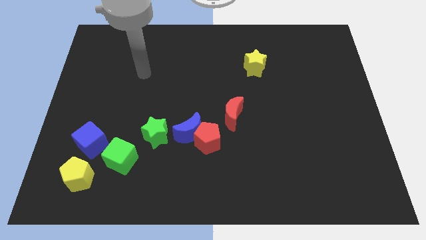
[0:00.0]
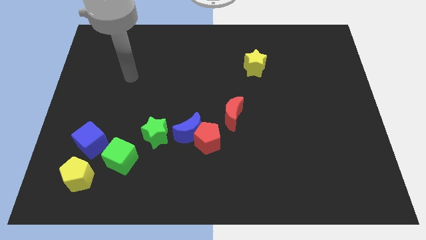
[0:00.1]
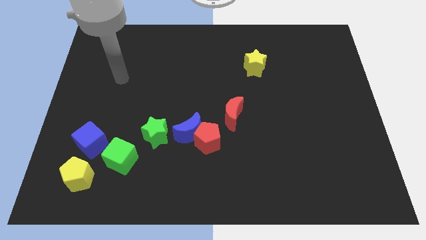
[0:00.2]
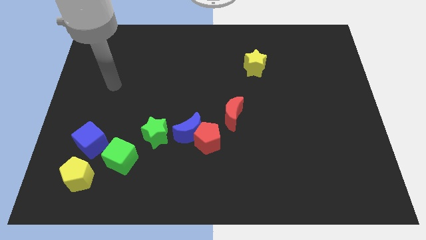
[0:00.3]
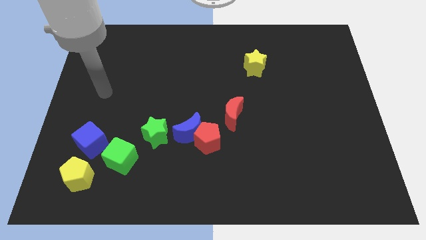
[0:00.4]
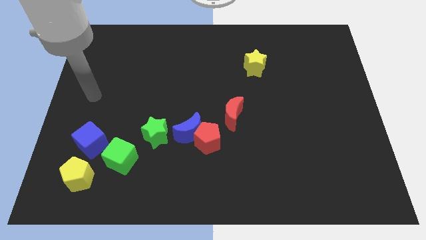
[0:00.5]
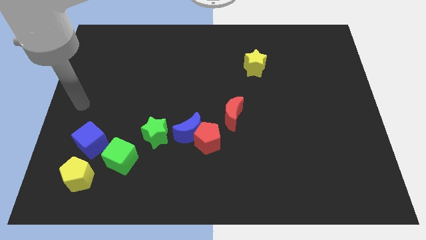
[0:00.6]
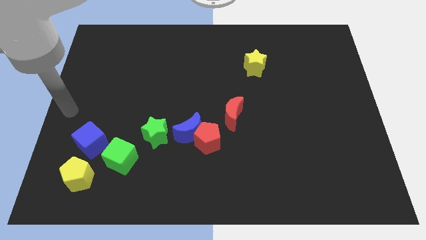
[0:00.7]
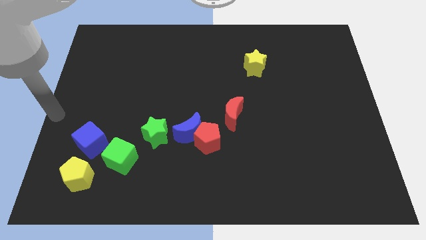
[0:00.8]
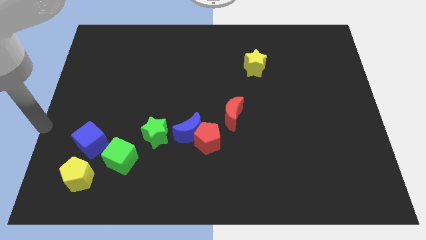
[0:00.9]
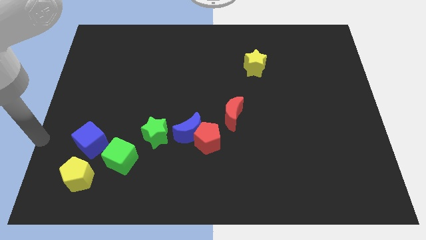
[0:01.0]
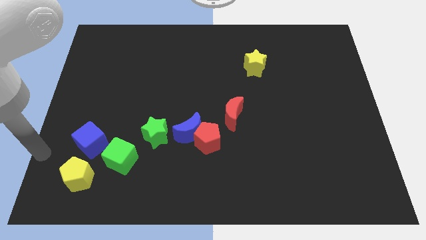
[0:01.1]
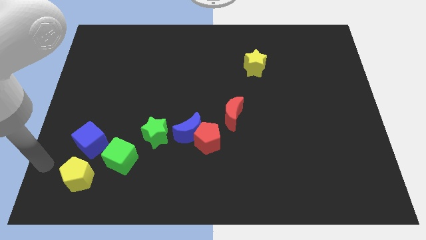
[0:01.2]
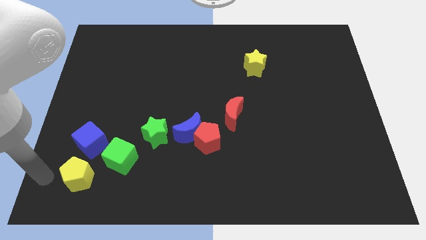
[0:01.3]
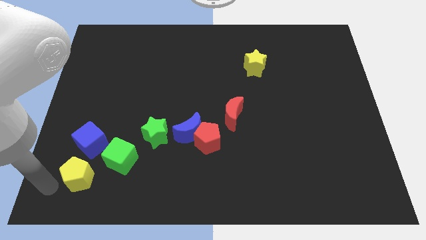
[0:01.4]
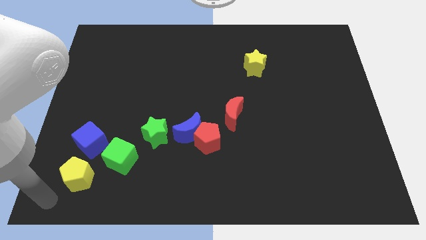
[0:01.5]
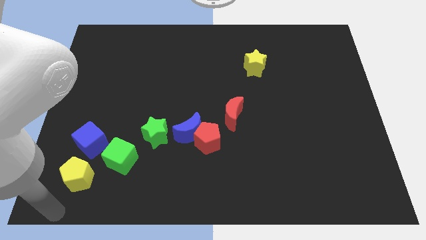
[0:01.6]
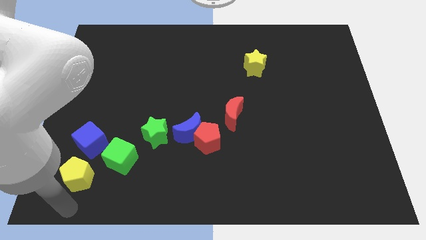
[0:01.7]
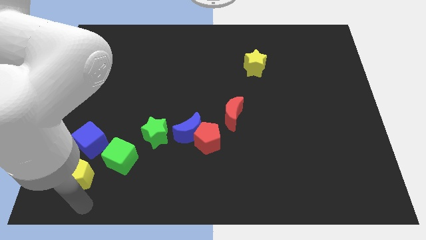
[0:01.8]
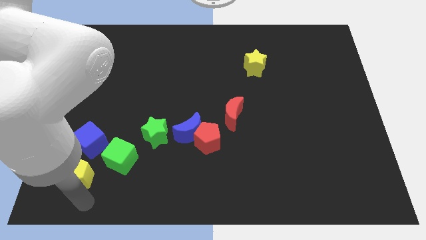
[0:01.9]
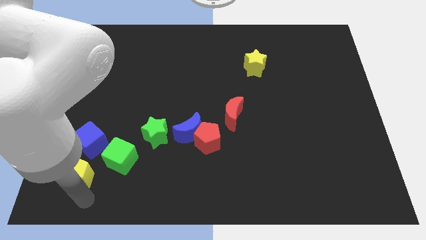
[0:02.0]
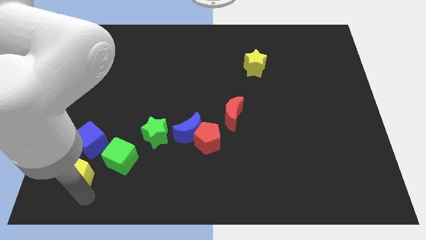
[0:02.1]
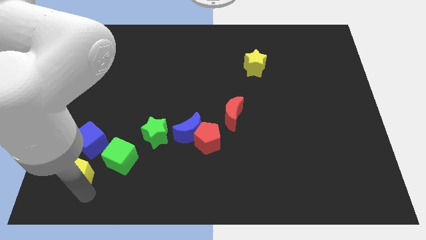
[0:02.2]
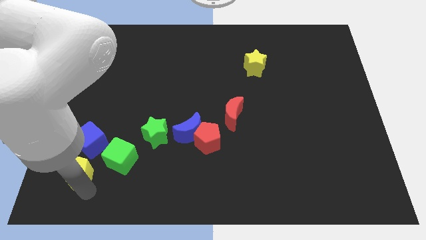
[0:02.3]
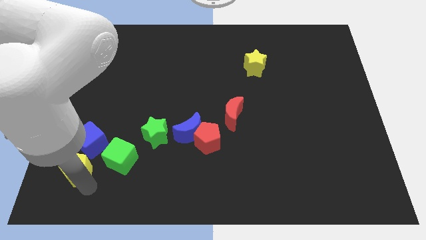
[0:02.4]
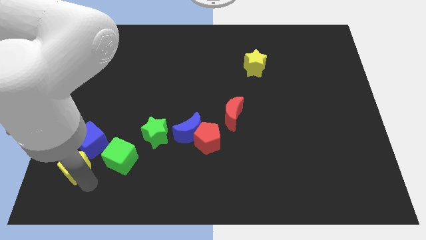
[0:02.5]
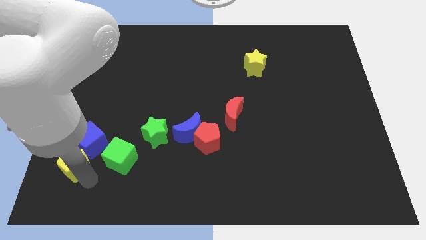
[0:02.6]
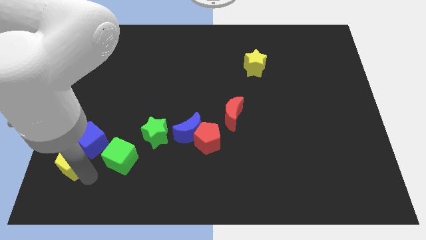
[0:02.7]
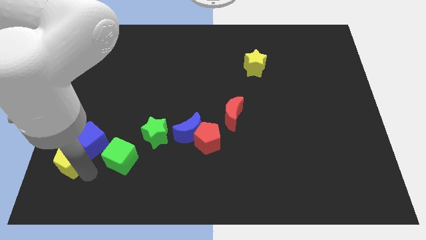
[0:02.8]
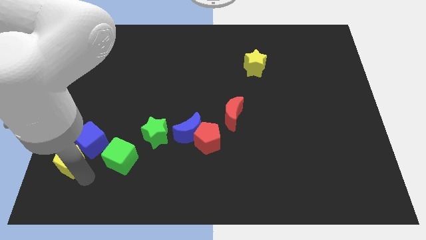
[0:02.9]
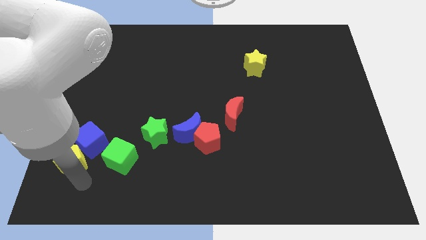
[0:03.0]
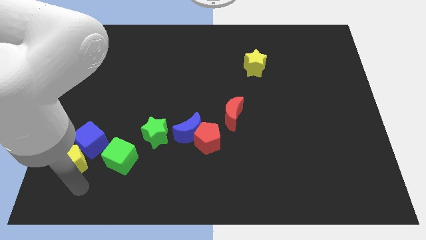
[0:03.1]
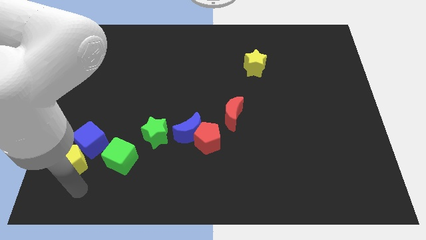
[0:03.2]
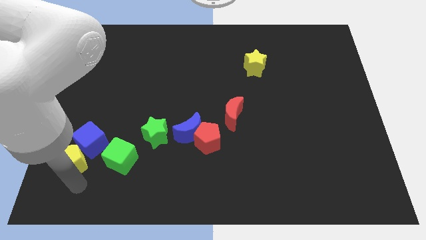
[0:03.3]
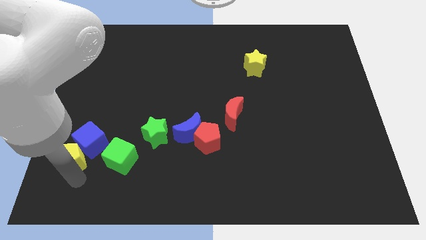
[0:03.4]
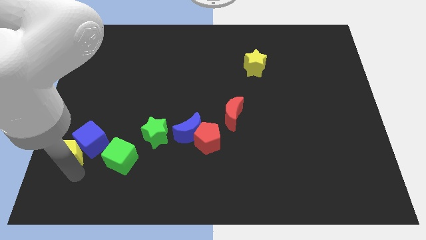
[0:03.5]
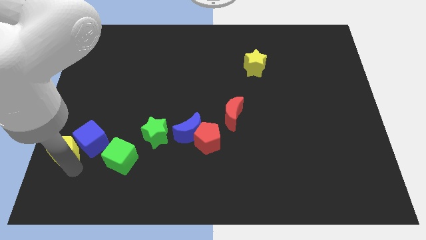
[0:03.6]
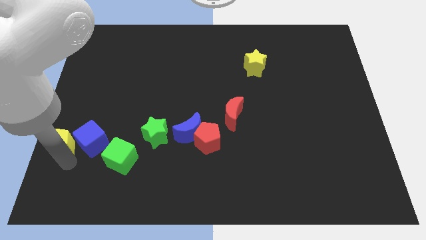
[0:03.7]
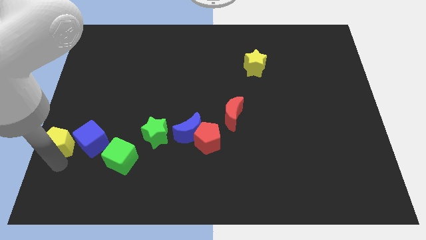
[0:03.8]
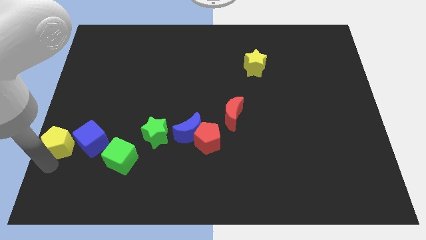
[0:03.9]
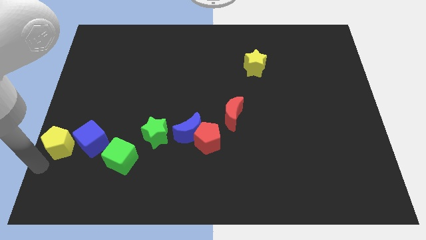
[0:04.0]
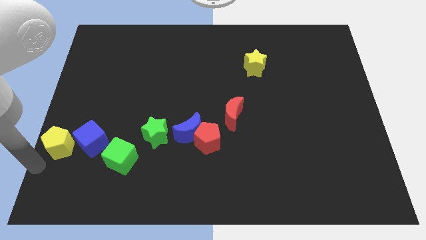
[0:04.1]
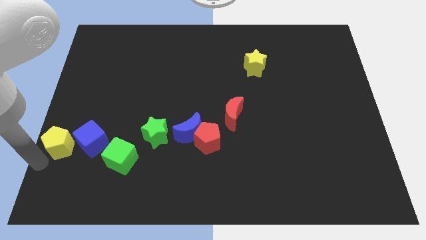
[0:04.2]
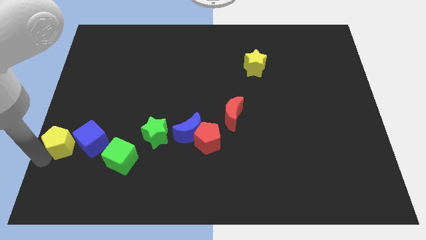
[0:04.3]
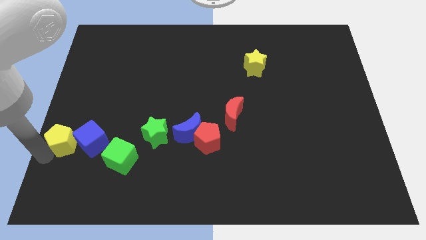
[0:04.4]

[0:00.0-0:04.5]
slide the yellow pentagon a bit up

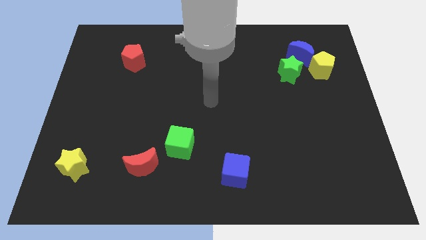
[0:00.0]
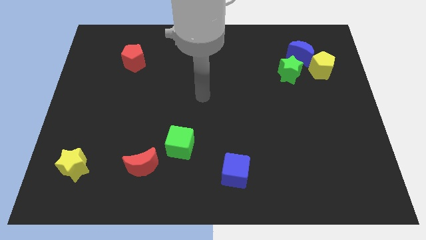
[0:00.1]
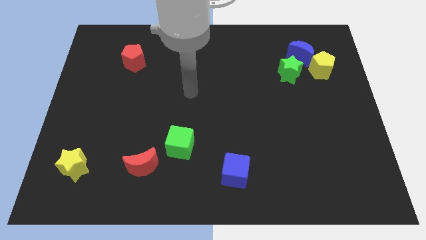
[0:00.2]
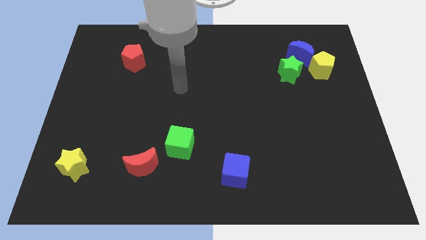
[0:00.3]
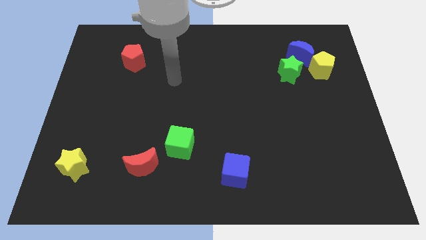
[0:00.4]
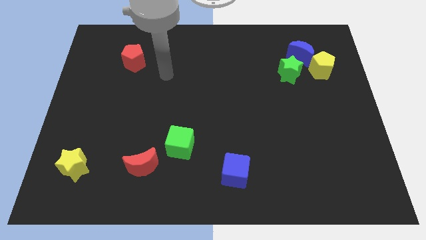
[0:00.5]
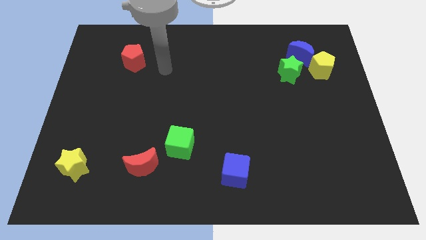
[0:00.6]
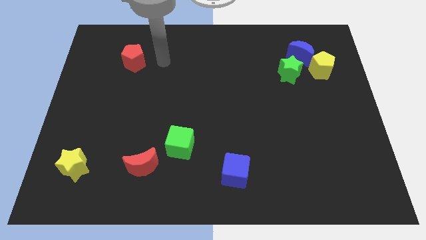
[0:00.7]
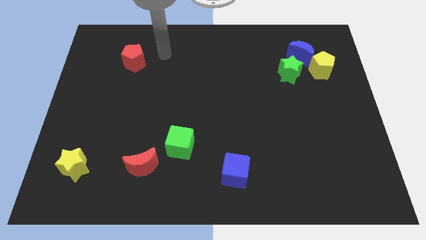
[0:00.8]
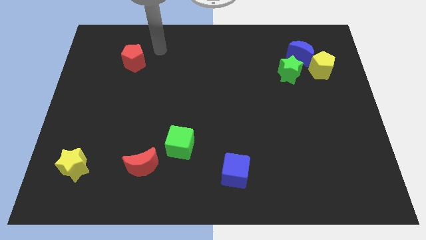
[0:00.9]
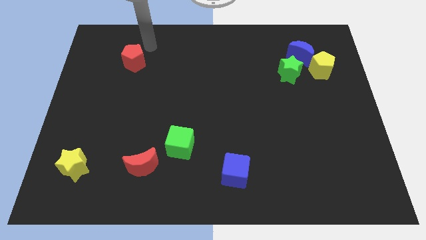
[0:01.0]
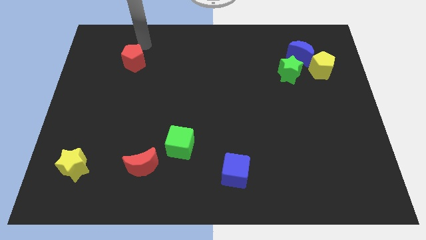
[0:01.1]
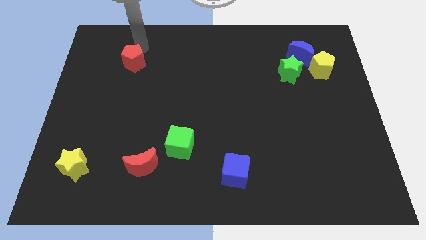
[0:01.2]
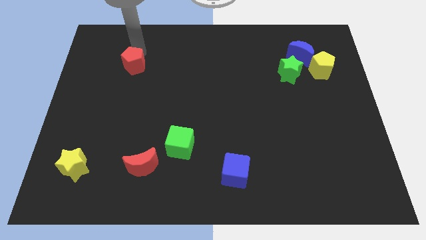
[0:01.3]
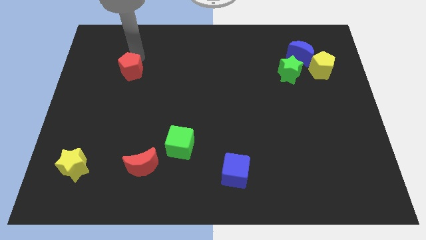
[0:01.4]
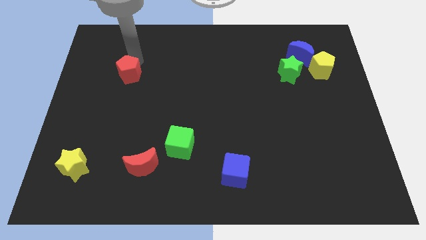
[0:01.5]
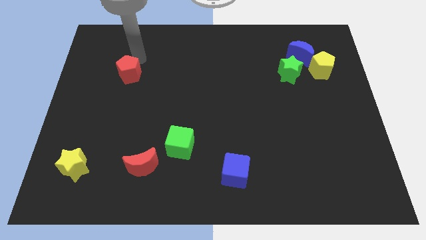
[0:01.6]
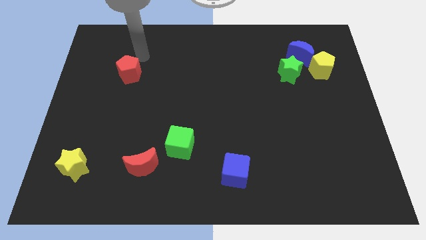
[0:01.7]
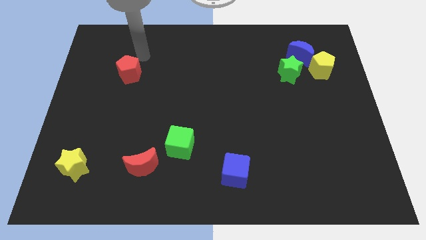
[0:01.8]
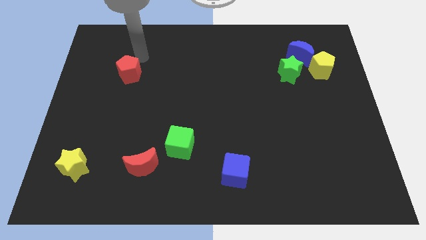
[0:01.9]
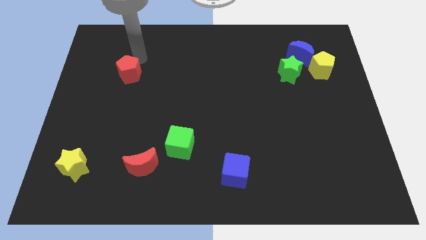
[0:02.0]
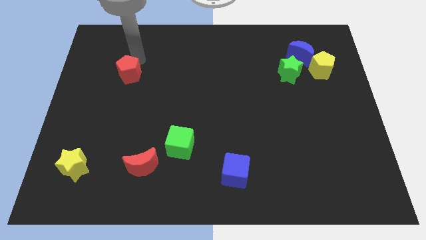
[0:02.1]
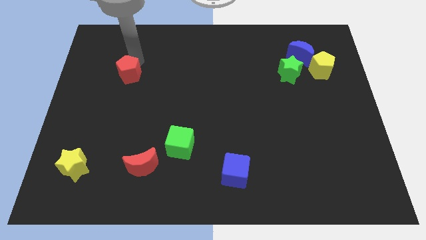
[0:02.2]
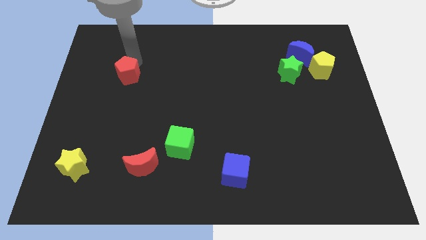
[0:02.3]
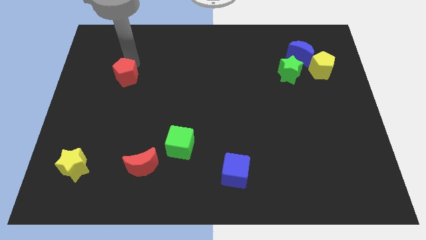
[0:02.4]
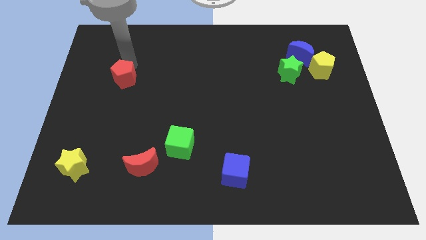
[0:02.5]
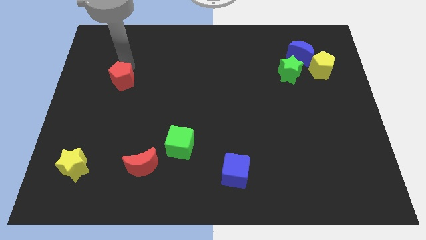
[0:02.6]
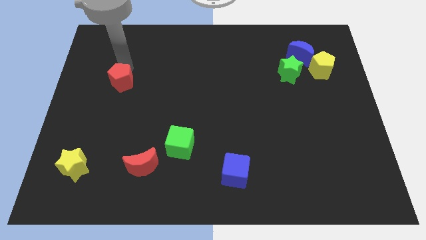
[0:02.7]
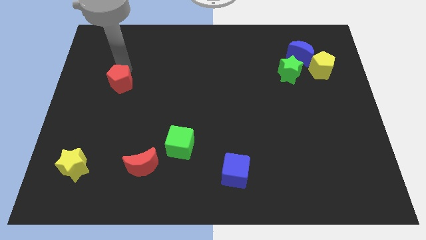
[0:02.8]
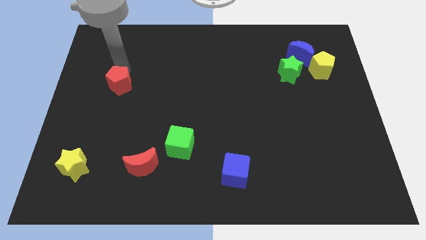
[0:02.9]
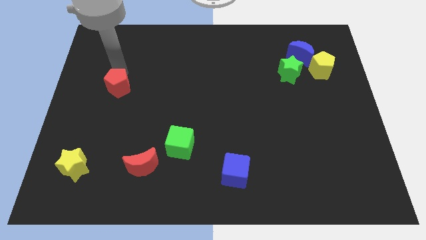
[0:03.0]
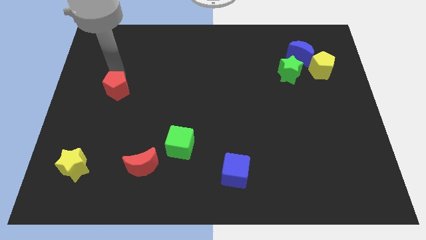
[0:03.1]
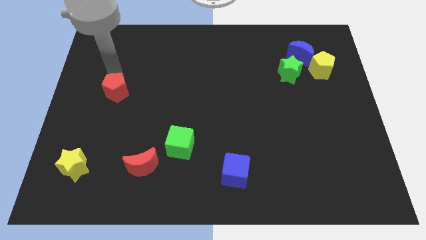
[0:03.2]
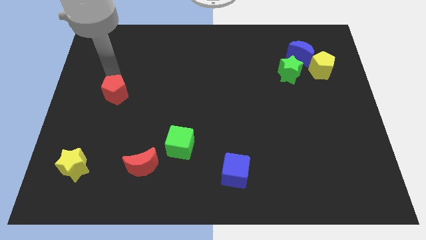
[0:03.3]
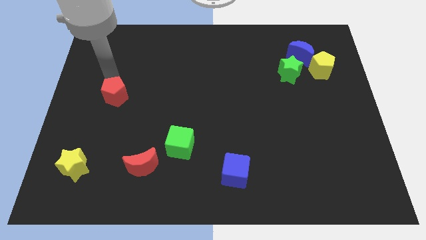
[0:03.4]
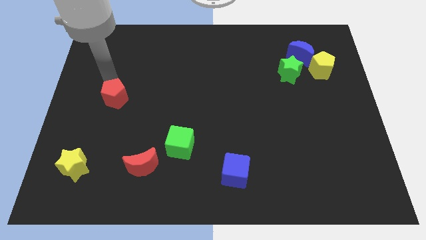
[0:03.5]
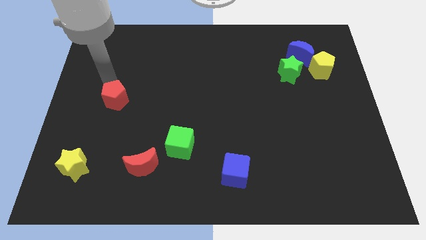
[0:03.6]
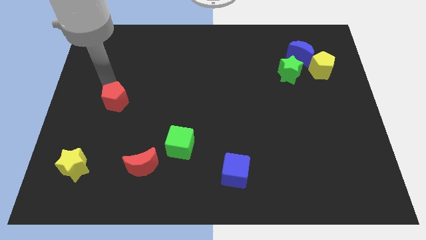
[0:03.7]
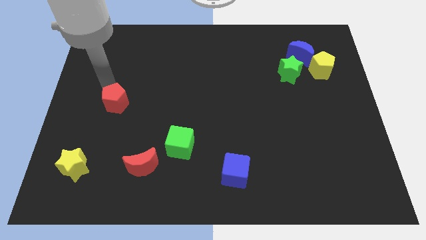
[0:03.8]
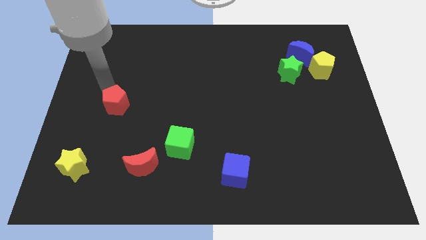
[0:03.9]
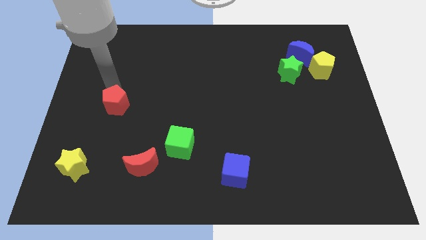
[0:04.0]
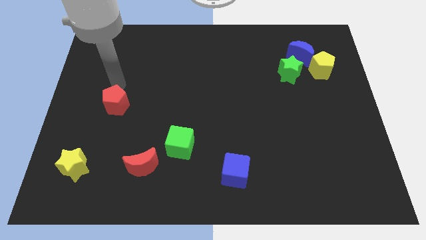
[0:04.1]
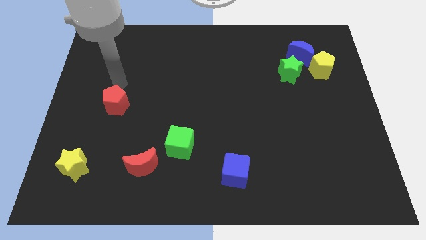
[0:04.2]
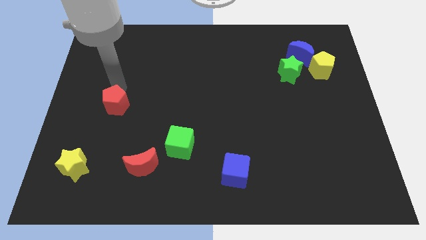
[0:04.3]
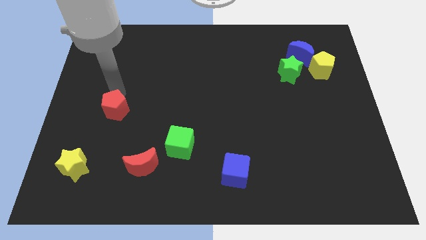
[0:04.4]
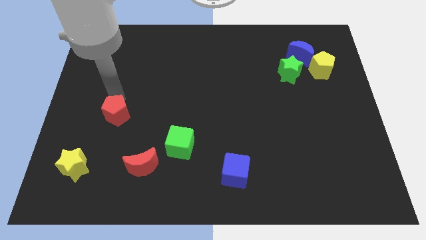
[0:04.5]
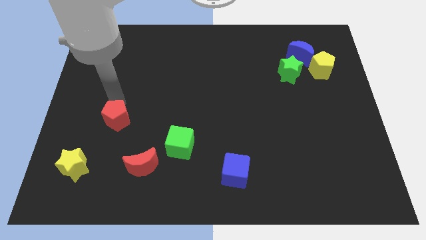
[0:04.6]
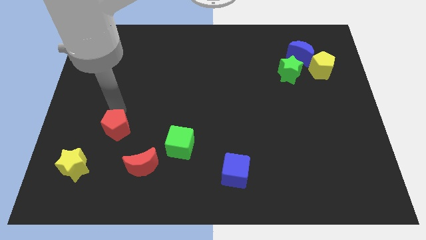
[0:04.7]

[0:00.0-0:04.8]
push the red pentagon down
